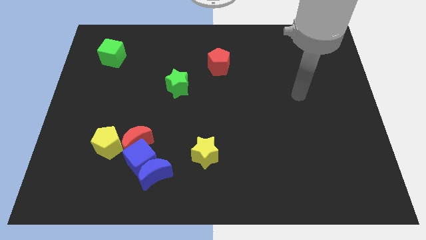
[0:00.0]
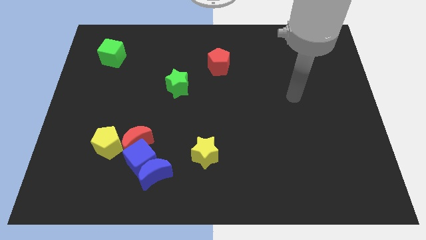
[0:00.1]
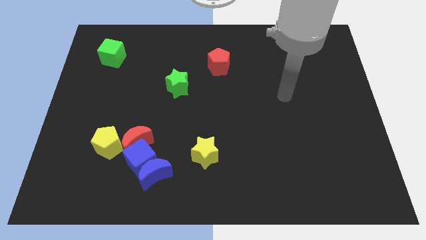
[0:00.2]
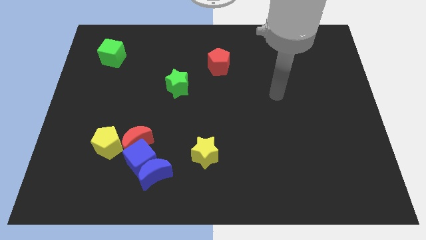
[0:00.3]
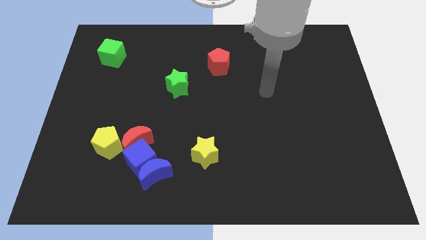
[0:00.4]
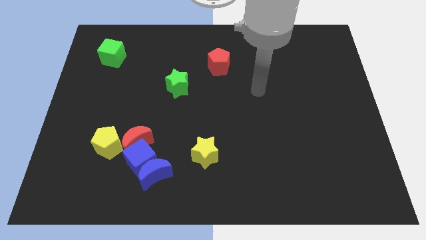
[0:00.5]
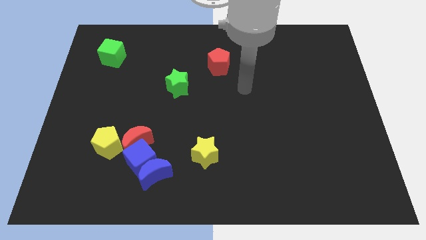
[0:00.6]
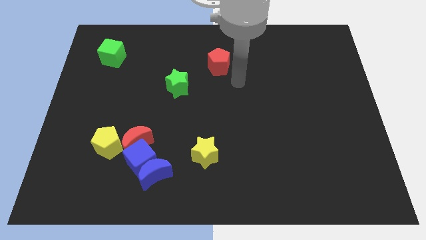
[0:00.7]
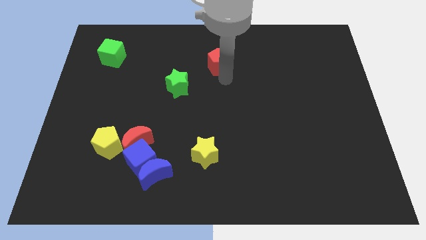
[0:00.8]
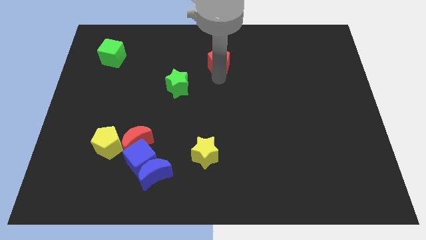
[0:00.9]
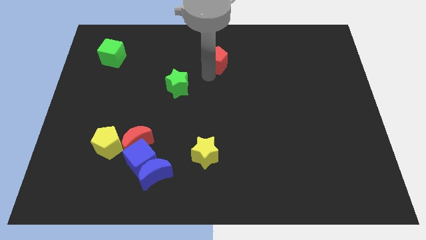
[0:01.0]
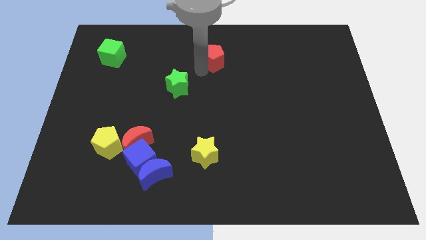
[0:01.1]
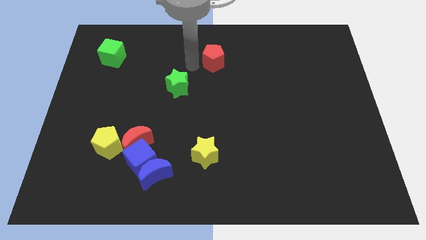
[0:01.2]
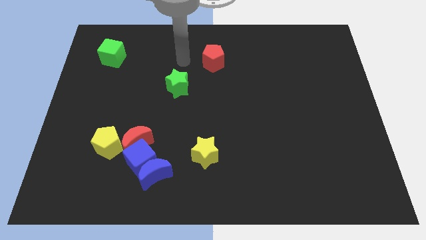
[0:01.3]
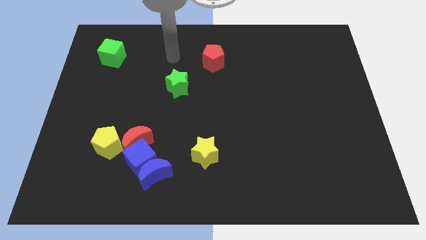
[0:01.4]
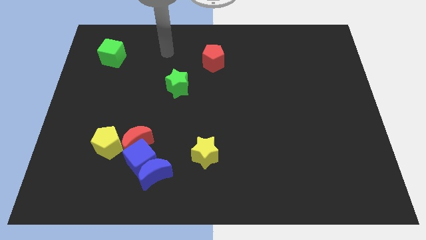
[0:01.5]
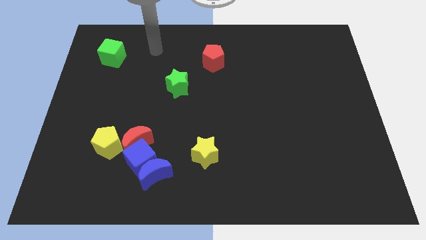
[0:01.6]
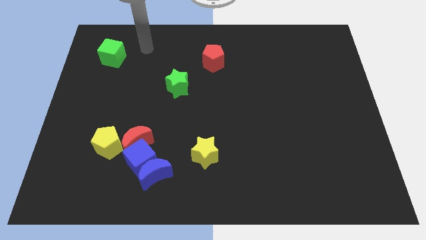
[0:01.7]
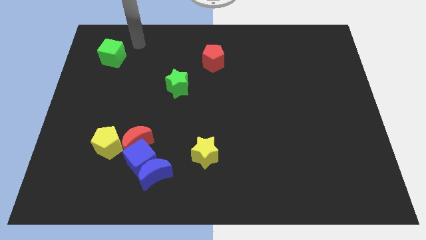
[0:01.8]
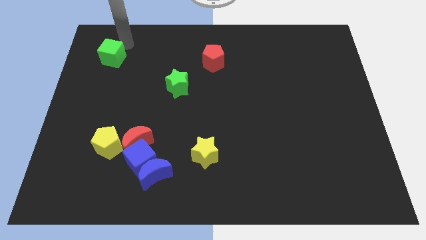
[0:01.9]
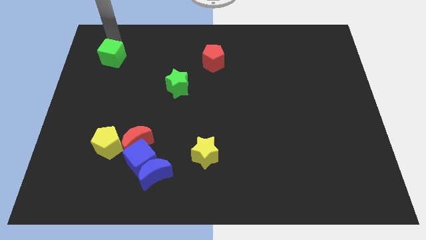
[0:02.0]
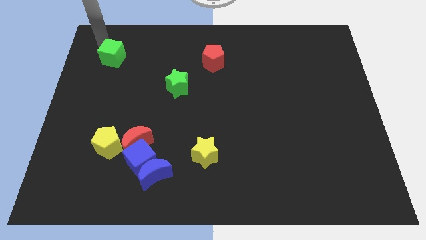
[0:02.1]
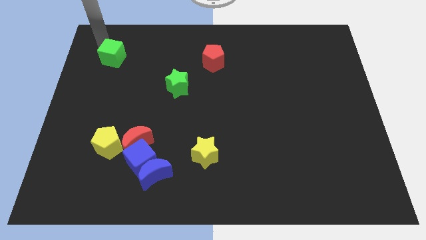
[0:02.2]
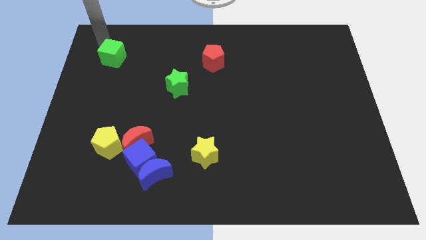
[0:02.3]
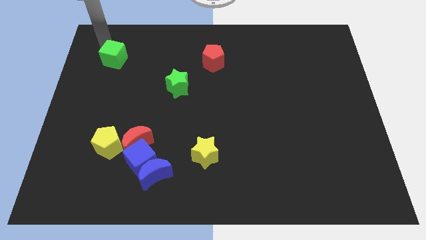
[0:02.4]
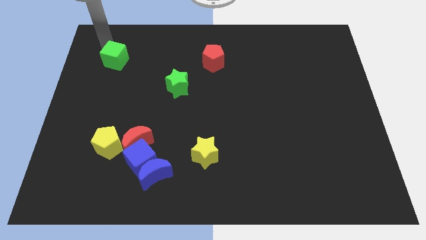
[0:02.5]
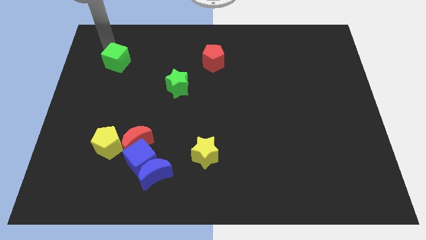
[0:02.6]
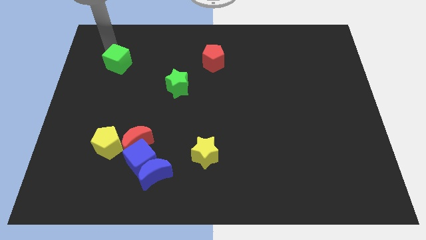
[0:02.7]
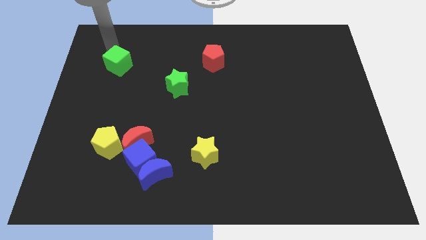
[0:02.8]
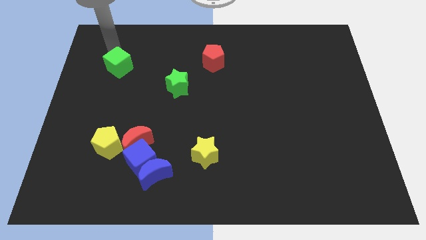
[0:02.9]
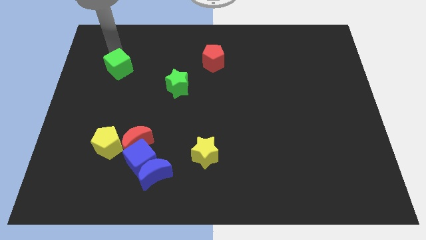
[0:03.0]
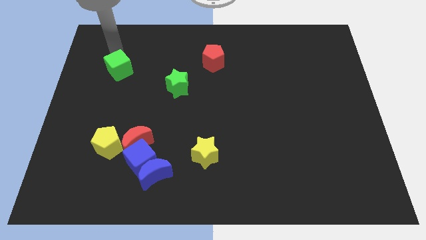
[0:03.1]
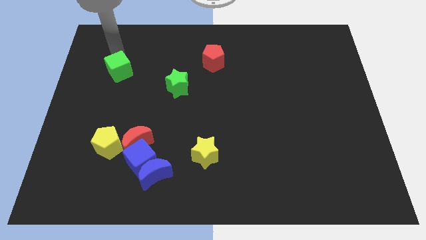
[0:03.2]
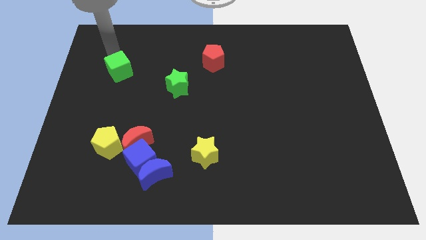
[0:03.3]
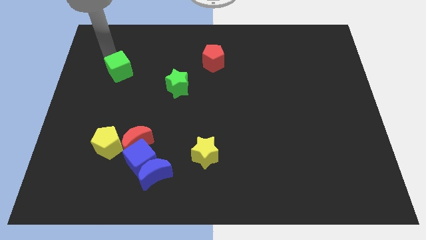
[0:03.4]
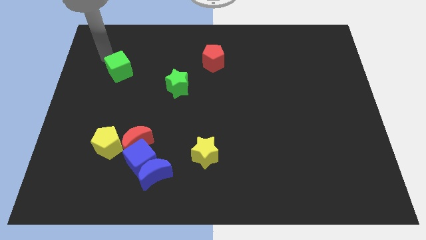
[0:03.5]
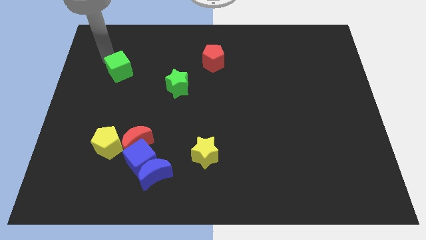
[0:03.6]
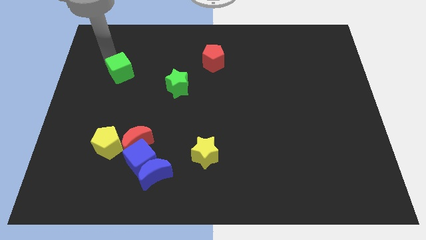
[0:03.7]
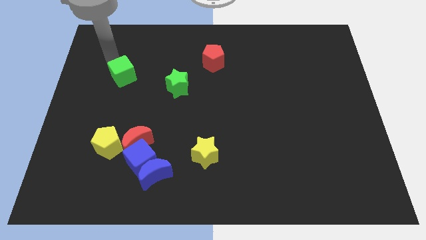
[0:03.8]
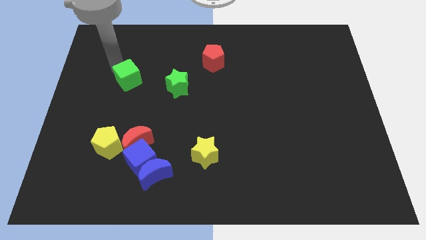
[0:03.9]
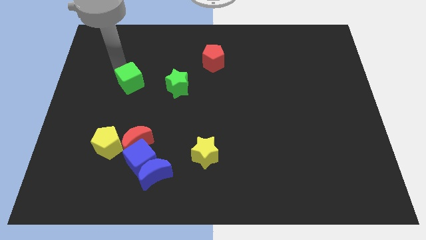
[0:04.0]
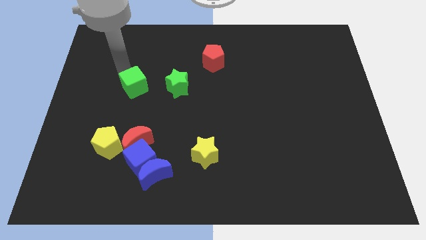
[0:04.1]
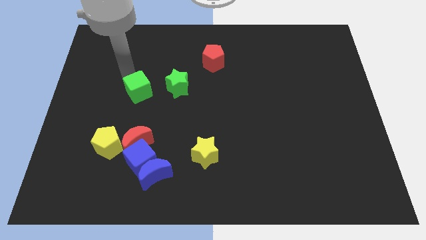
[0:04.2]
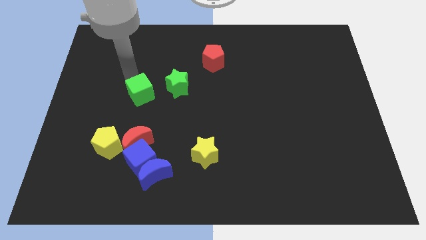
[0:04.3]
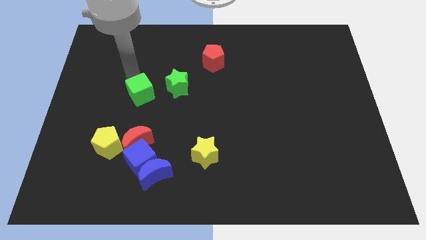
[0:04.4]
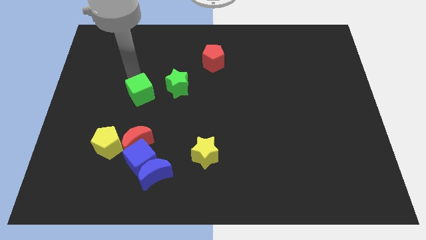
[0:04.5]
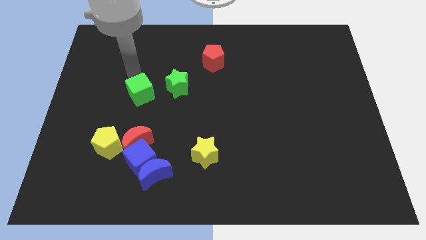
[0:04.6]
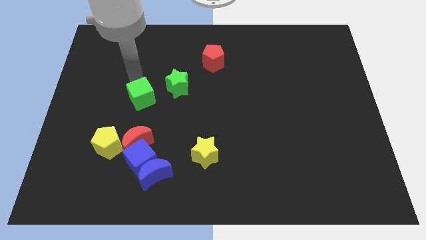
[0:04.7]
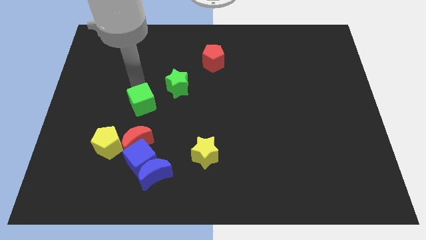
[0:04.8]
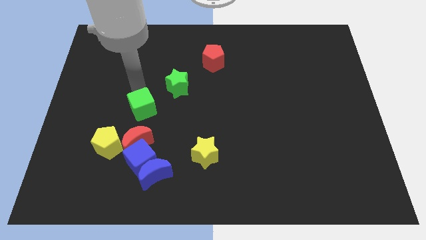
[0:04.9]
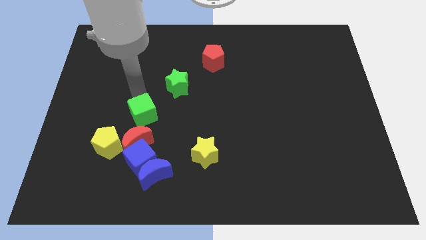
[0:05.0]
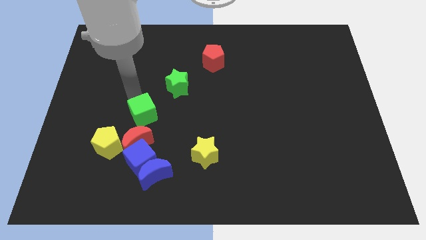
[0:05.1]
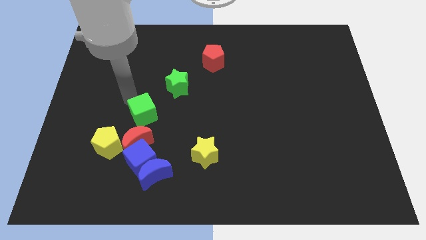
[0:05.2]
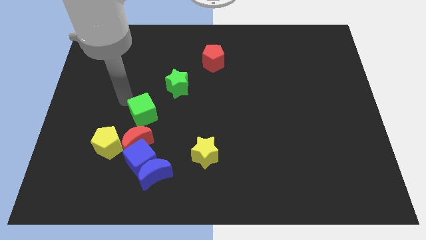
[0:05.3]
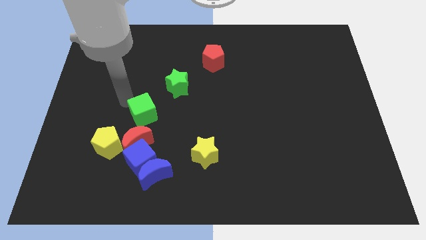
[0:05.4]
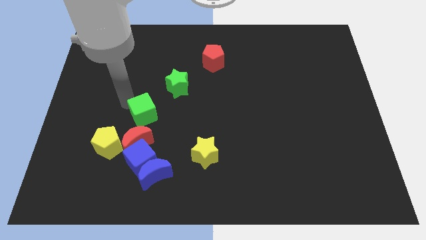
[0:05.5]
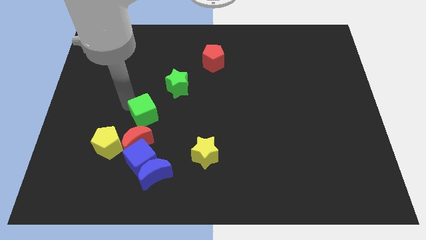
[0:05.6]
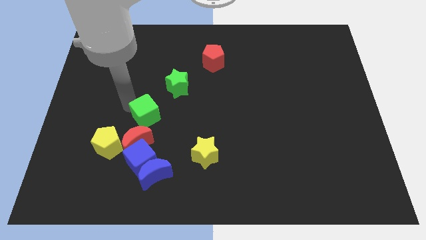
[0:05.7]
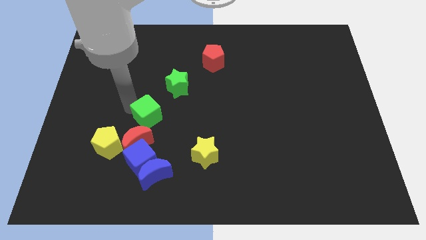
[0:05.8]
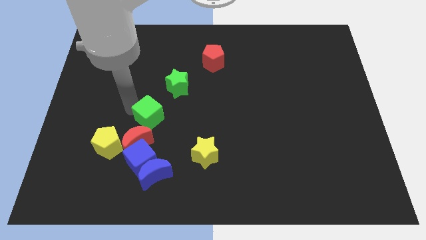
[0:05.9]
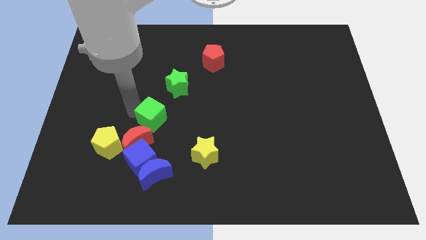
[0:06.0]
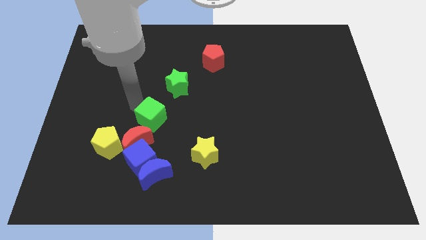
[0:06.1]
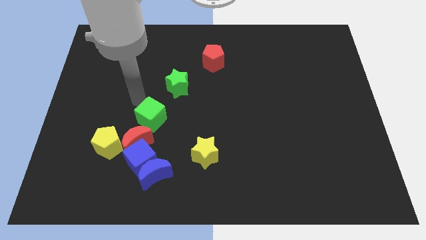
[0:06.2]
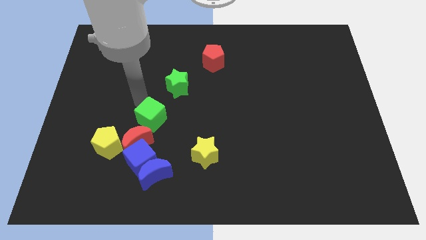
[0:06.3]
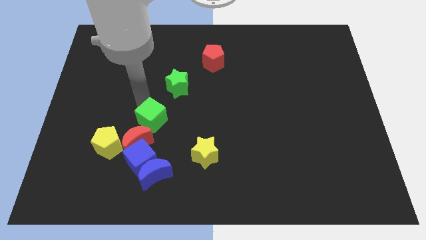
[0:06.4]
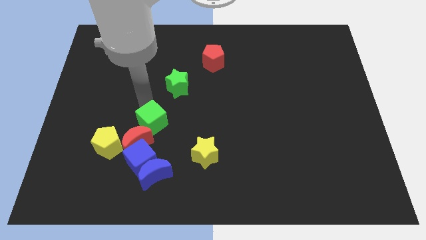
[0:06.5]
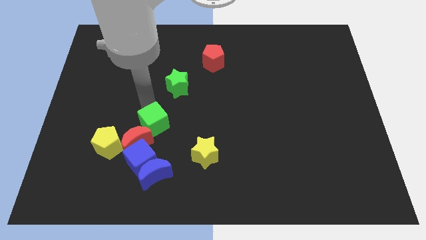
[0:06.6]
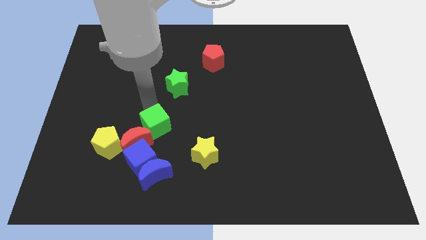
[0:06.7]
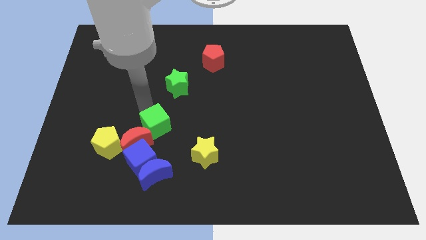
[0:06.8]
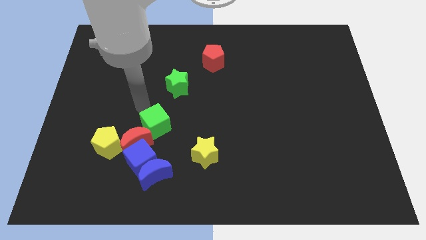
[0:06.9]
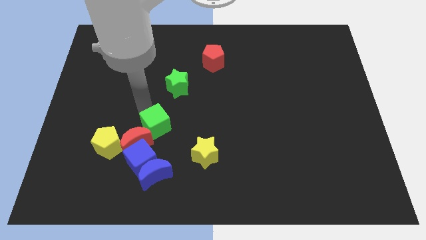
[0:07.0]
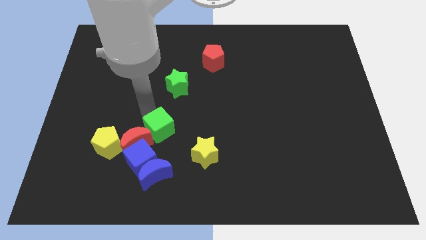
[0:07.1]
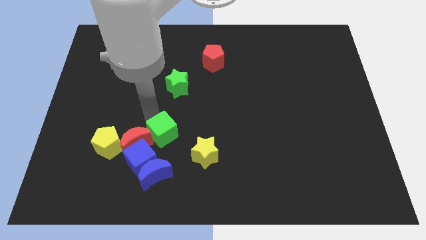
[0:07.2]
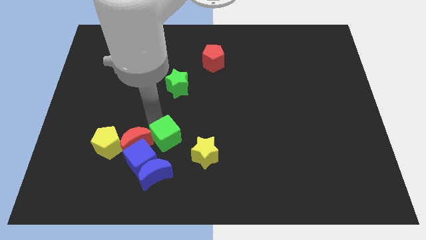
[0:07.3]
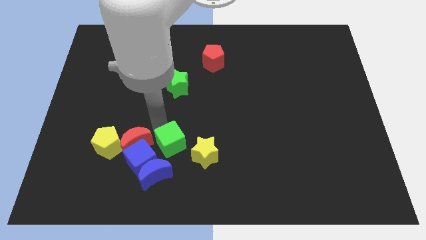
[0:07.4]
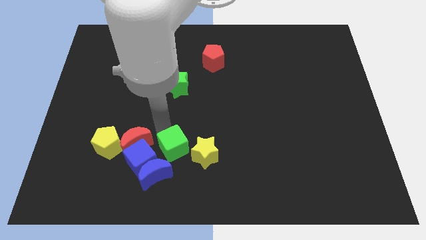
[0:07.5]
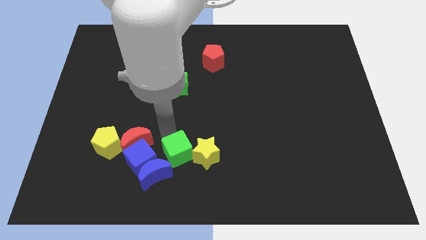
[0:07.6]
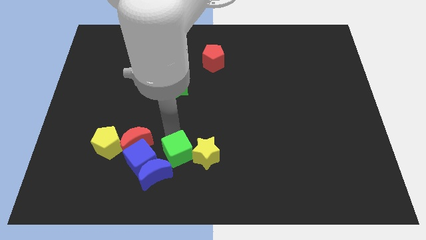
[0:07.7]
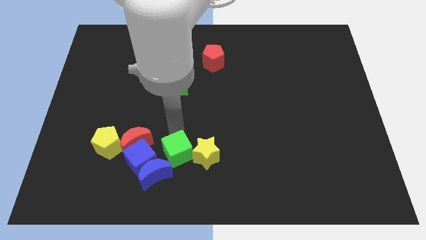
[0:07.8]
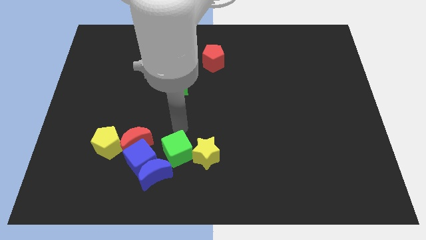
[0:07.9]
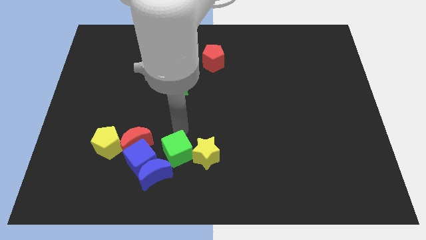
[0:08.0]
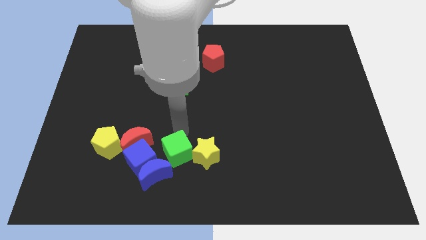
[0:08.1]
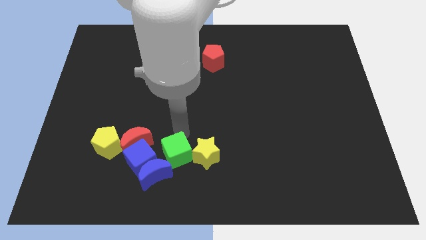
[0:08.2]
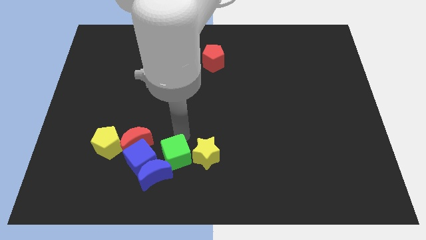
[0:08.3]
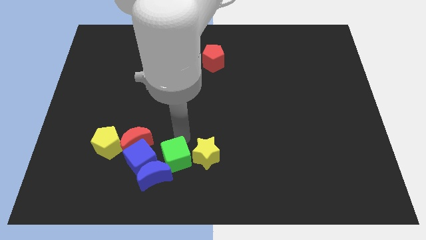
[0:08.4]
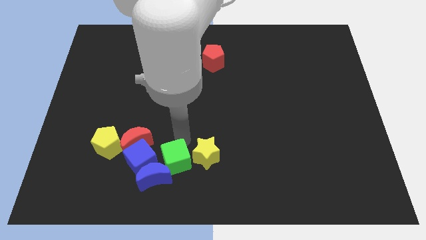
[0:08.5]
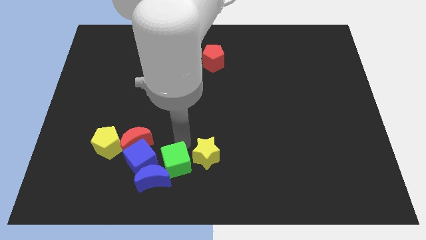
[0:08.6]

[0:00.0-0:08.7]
push the green cube to the bottom right side of the blue cube
